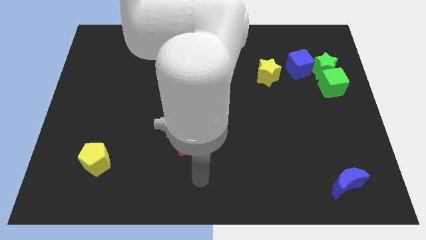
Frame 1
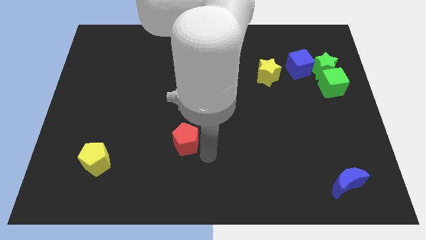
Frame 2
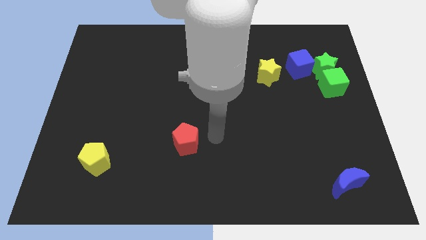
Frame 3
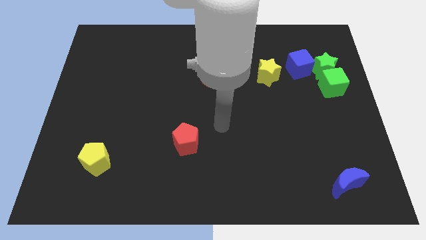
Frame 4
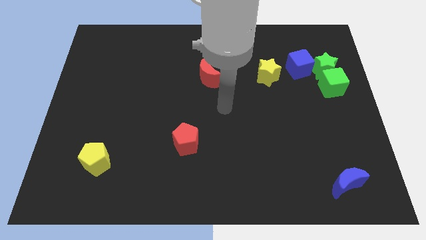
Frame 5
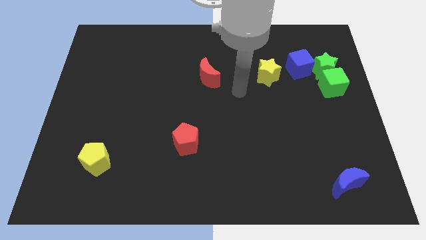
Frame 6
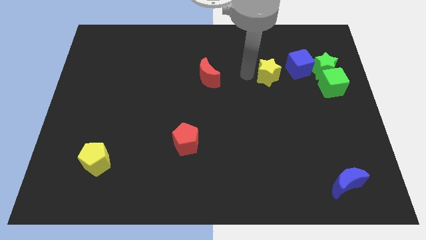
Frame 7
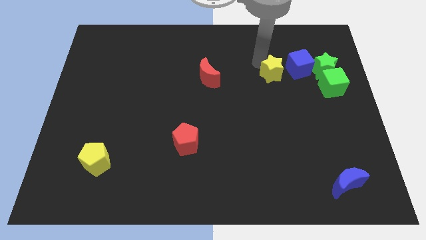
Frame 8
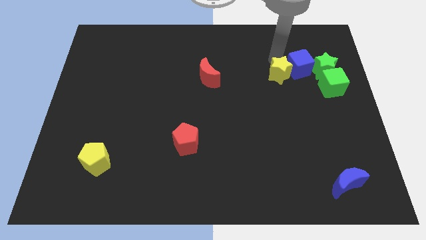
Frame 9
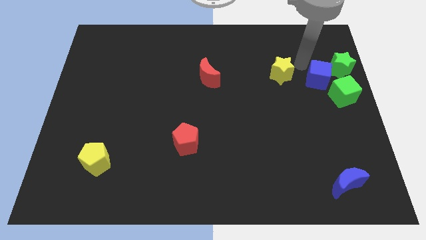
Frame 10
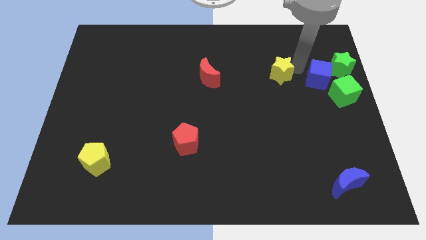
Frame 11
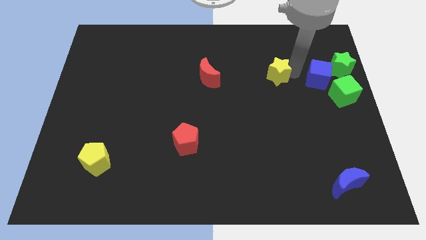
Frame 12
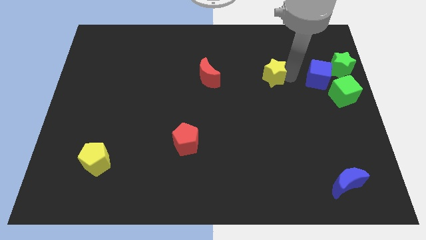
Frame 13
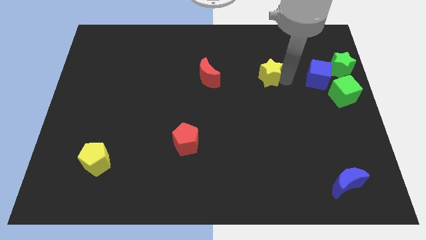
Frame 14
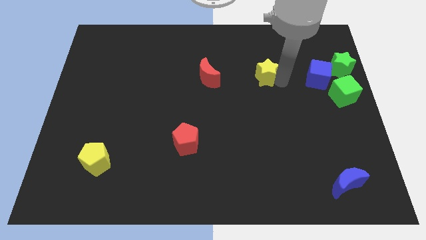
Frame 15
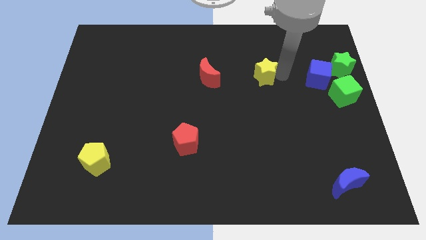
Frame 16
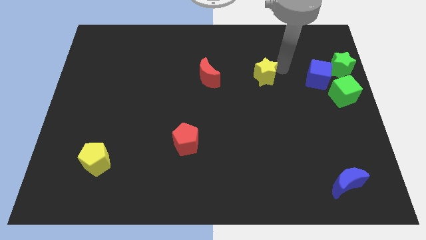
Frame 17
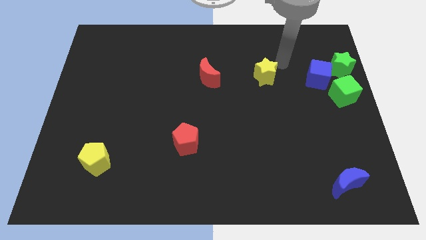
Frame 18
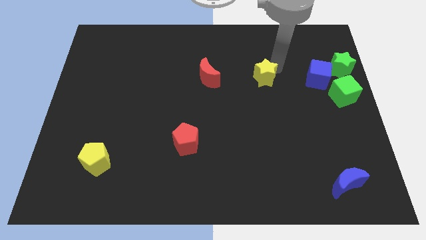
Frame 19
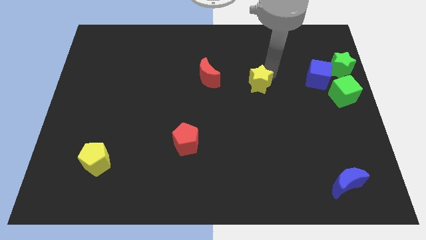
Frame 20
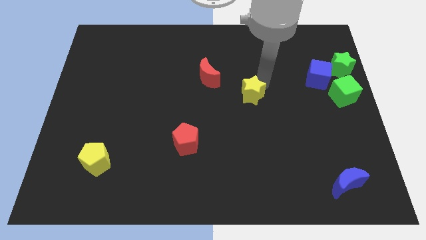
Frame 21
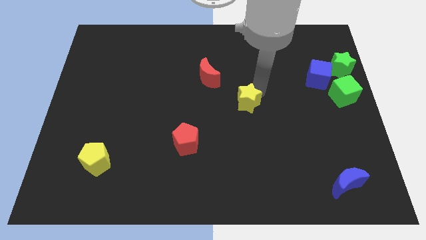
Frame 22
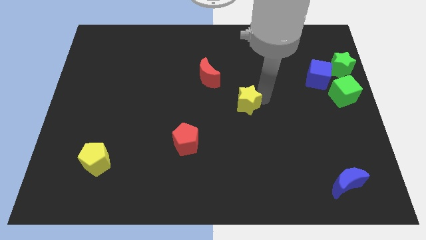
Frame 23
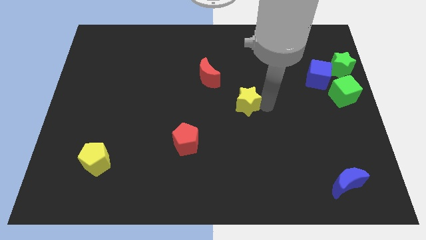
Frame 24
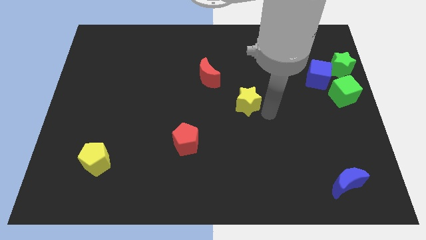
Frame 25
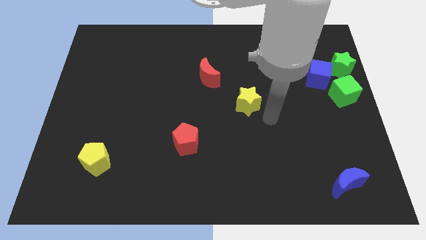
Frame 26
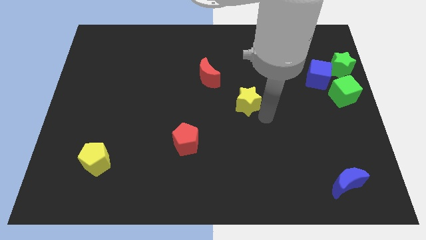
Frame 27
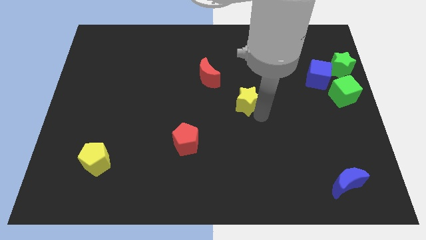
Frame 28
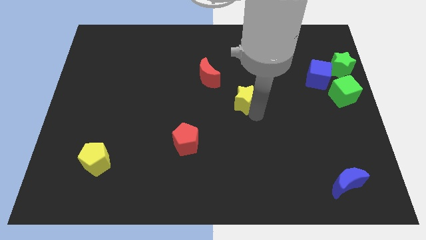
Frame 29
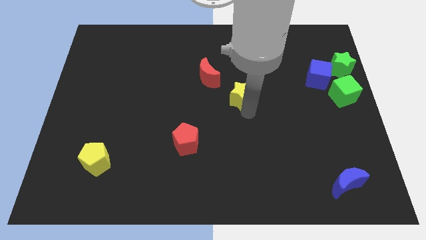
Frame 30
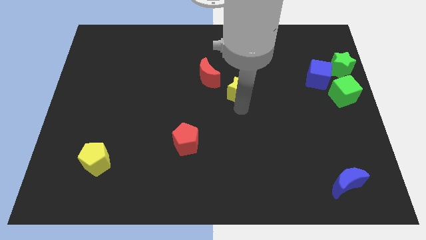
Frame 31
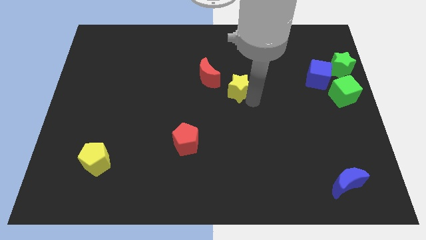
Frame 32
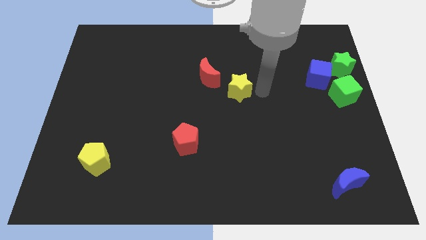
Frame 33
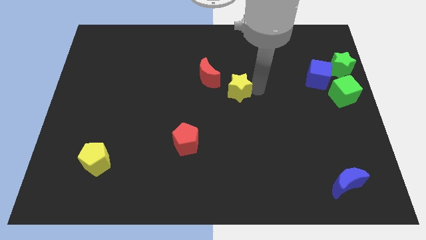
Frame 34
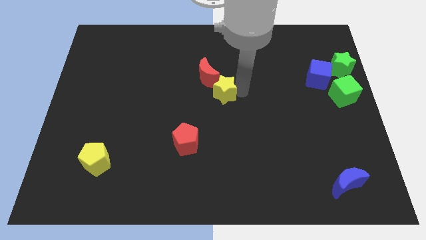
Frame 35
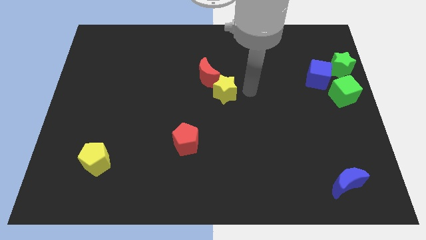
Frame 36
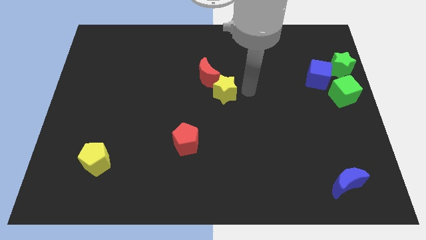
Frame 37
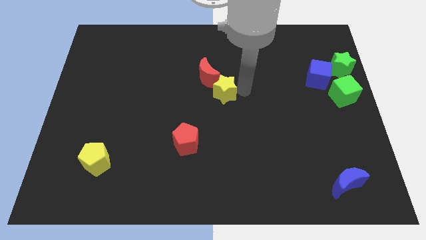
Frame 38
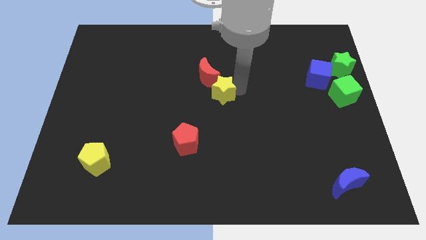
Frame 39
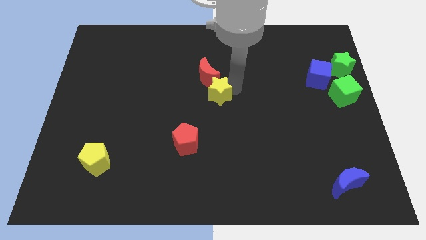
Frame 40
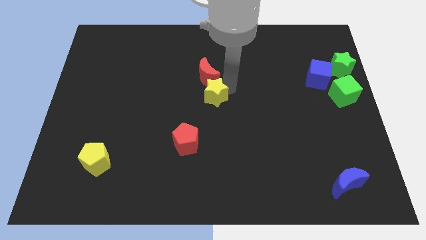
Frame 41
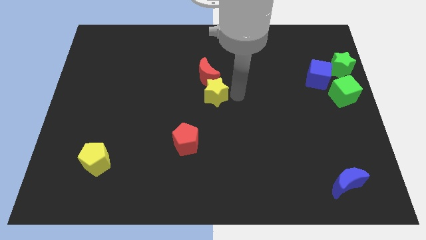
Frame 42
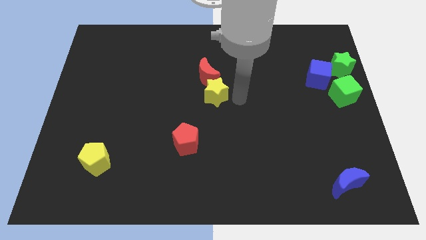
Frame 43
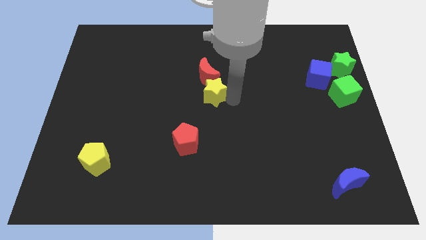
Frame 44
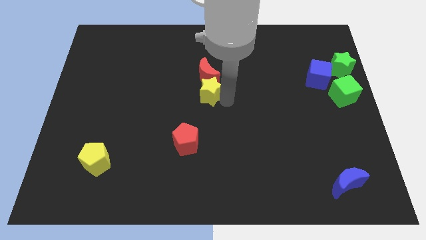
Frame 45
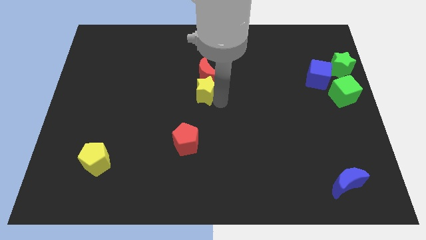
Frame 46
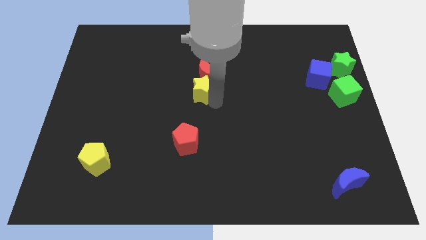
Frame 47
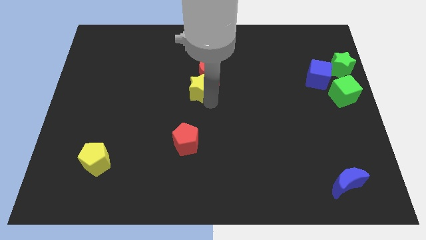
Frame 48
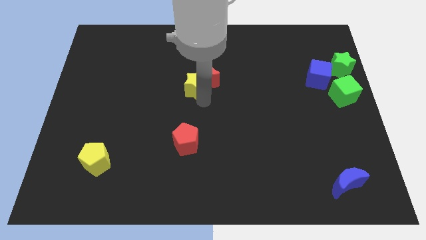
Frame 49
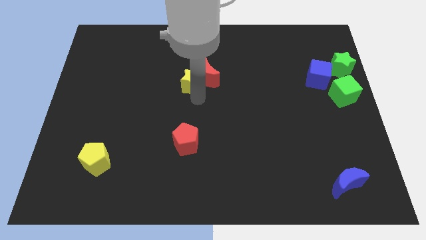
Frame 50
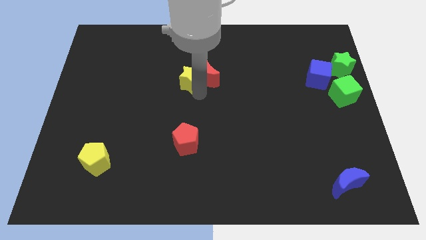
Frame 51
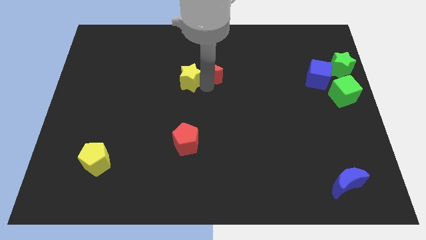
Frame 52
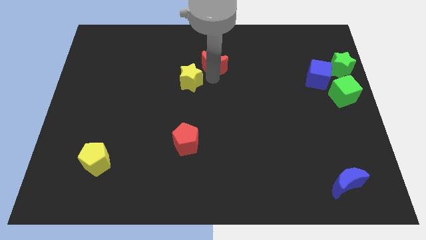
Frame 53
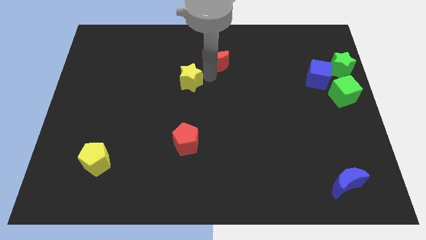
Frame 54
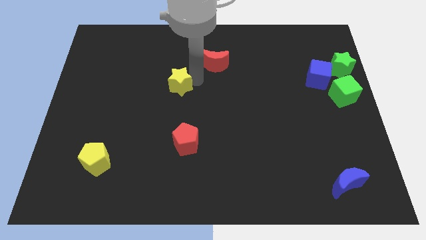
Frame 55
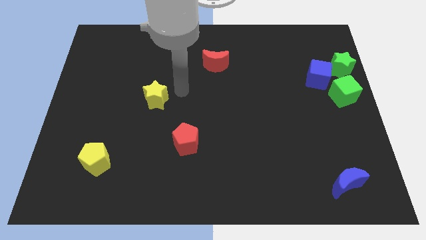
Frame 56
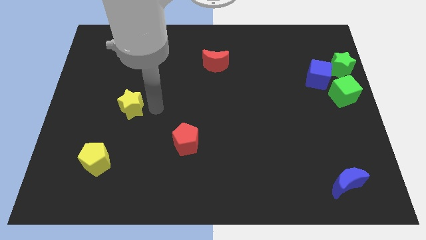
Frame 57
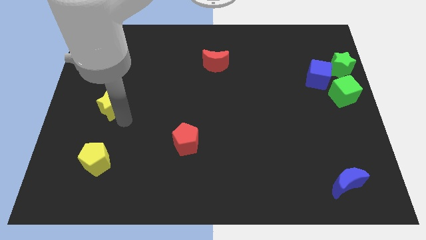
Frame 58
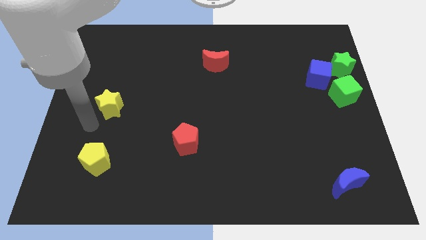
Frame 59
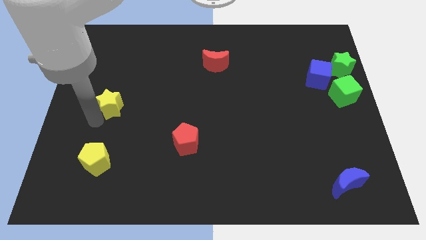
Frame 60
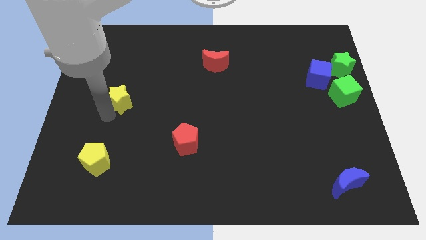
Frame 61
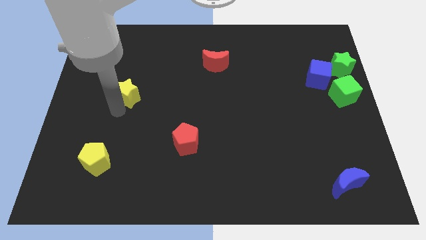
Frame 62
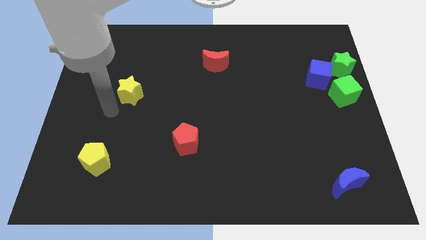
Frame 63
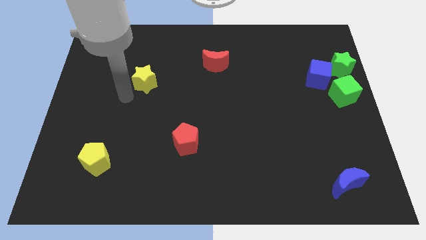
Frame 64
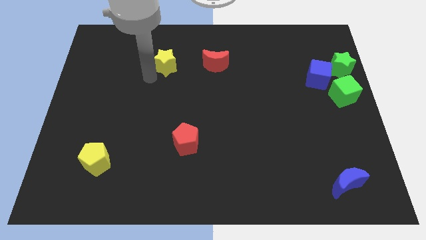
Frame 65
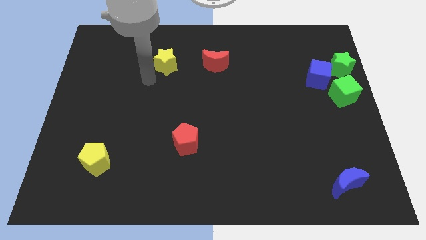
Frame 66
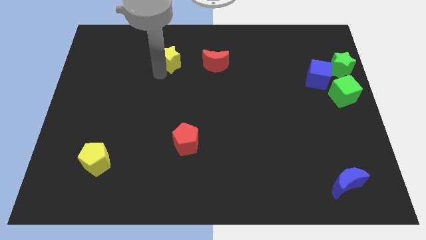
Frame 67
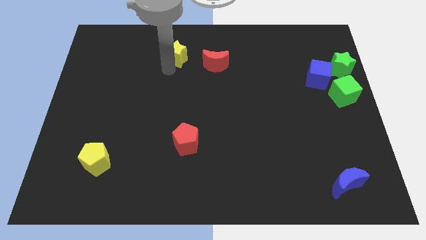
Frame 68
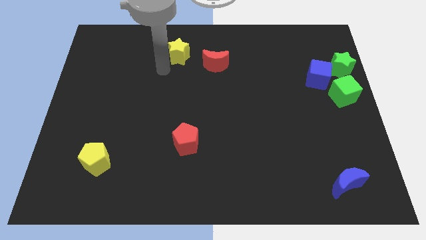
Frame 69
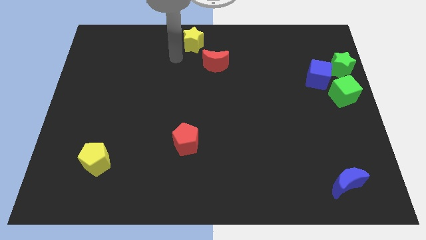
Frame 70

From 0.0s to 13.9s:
move the yellow star to the top side

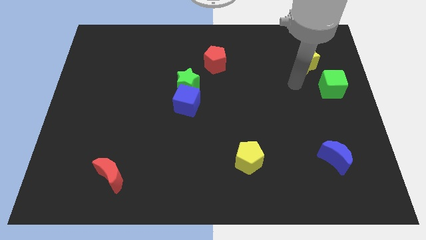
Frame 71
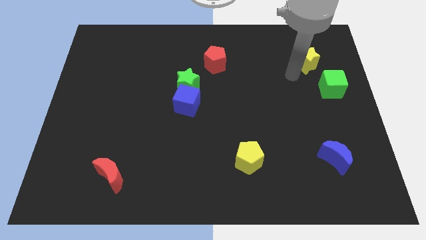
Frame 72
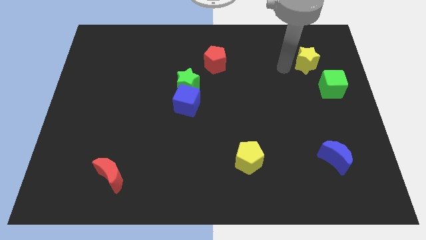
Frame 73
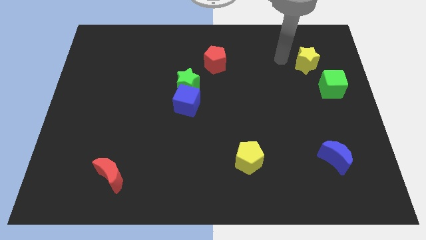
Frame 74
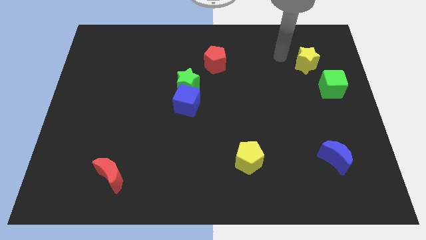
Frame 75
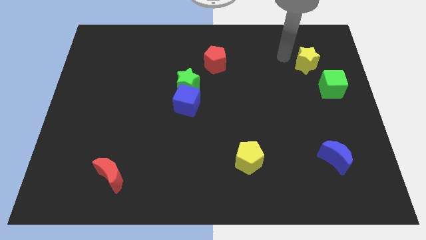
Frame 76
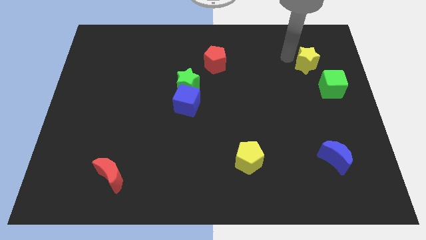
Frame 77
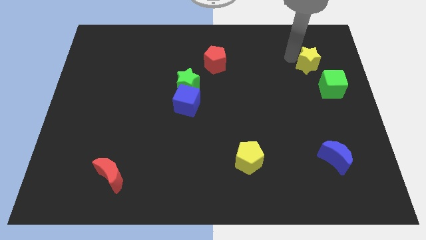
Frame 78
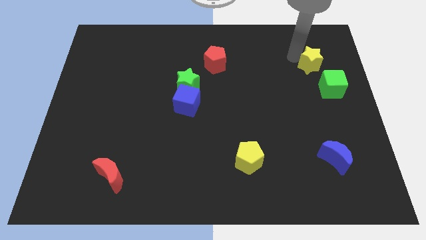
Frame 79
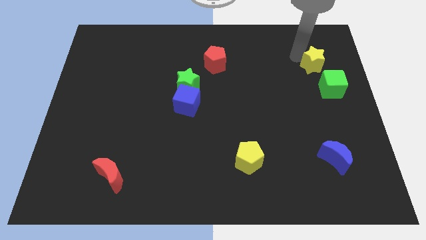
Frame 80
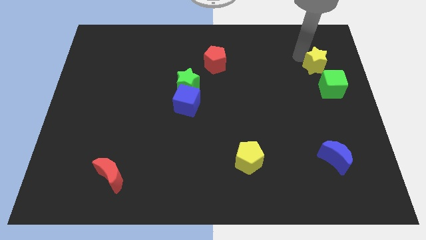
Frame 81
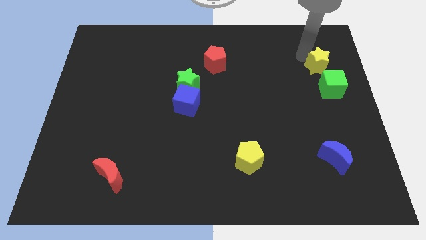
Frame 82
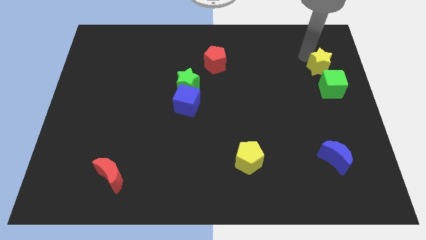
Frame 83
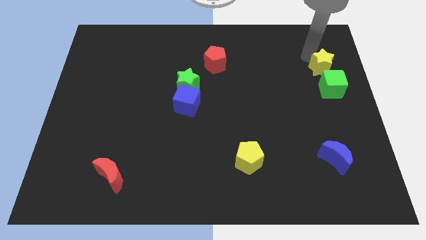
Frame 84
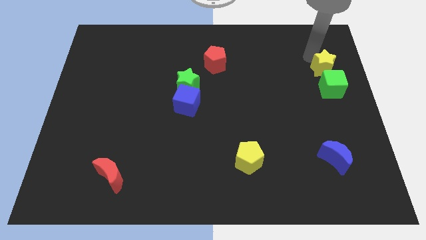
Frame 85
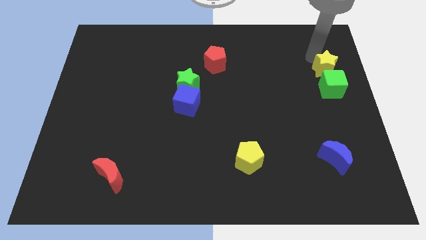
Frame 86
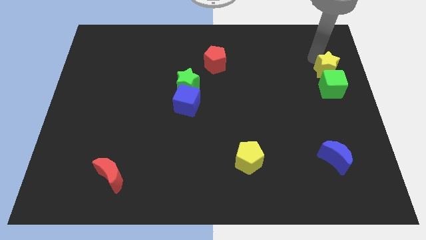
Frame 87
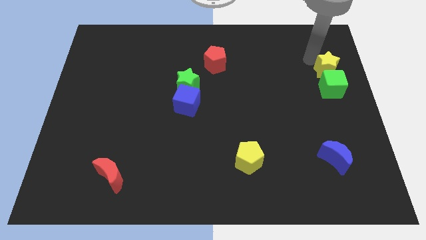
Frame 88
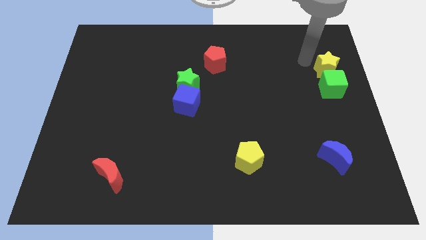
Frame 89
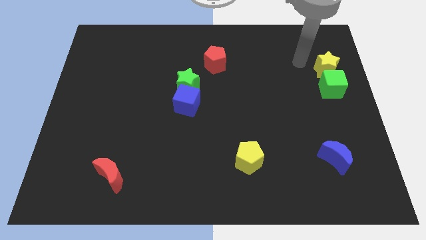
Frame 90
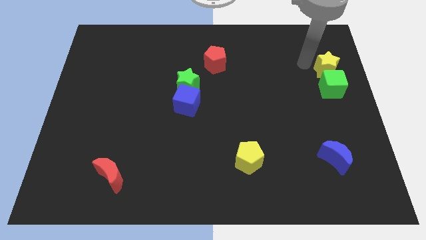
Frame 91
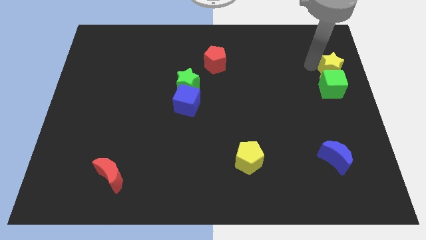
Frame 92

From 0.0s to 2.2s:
move the yellow star to the right side of the board
